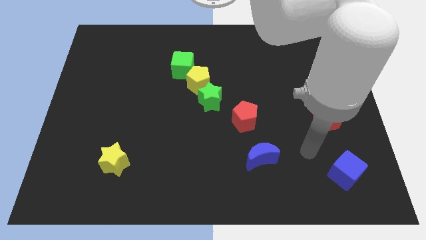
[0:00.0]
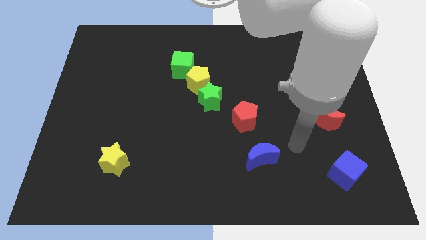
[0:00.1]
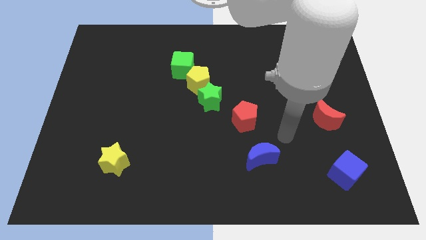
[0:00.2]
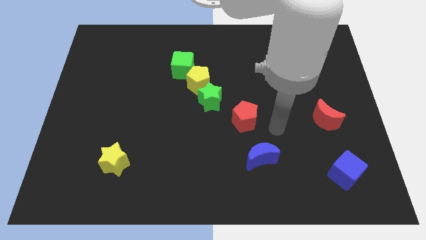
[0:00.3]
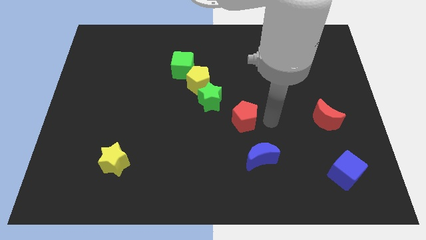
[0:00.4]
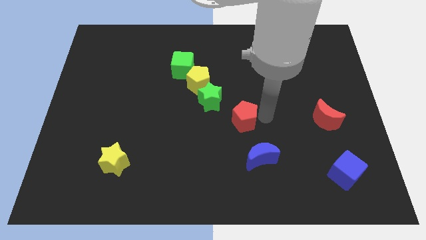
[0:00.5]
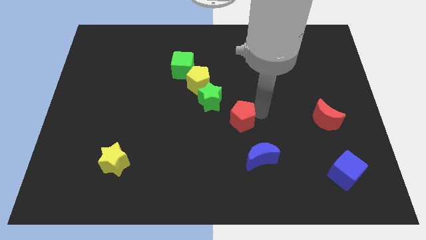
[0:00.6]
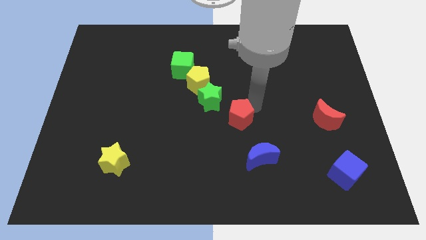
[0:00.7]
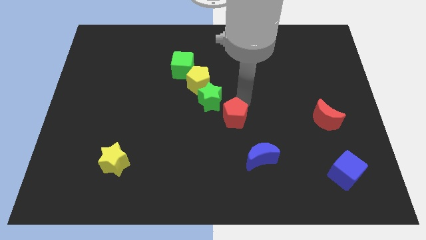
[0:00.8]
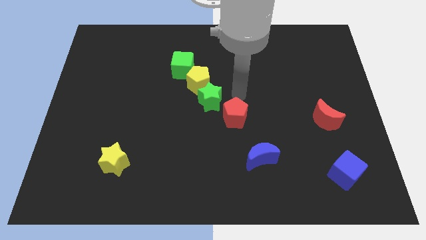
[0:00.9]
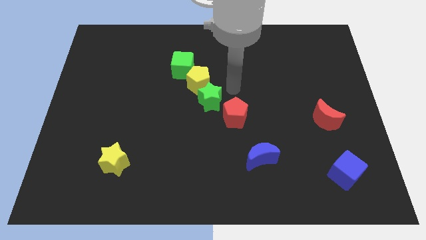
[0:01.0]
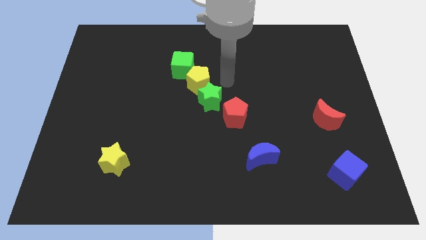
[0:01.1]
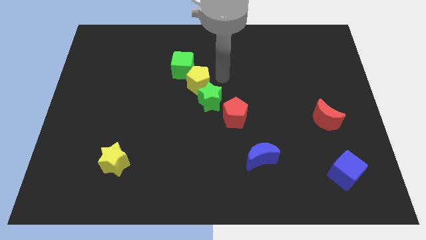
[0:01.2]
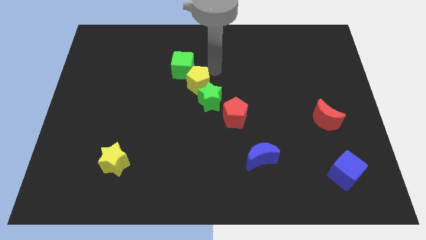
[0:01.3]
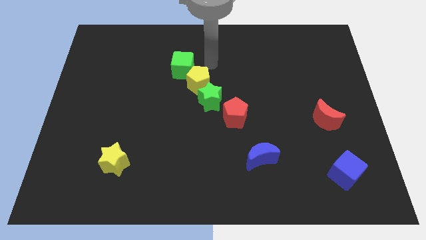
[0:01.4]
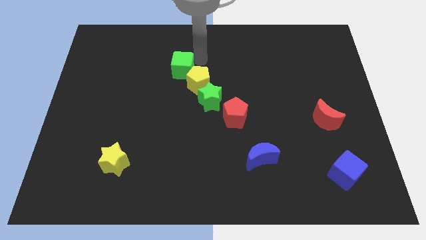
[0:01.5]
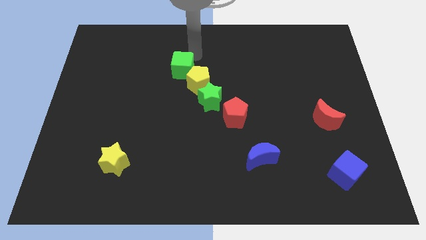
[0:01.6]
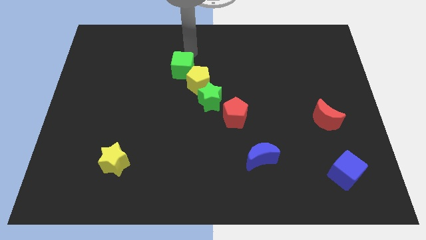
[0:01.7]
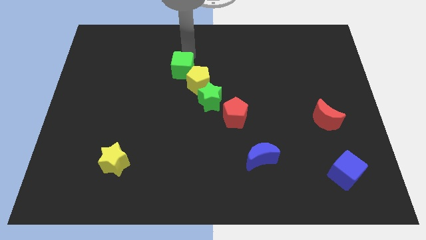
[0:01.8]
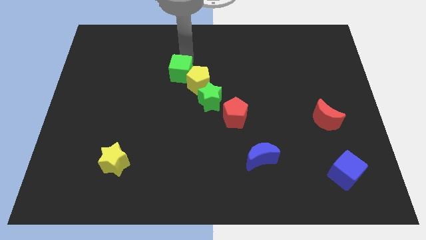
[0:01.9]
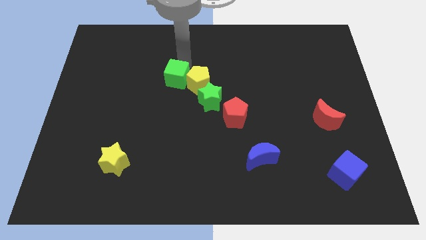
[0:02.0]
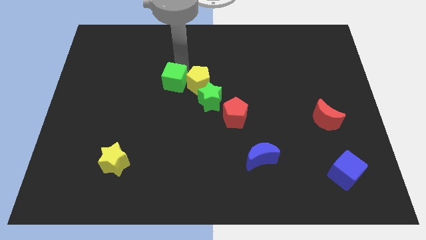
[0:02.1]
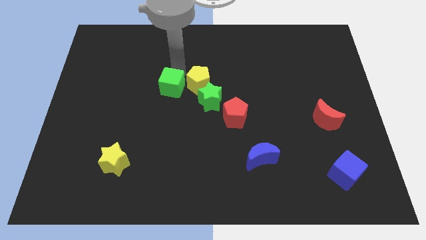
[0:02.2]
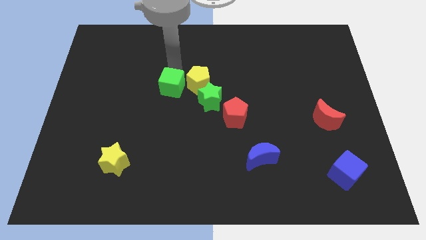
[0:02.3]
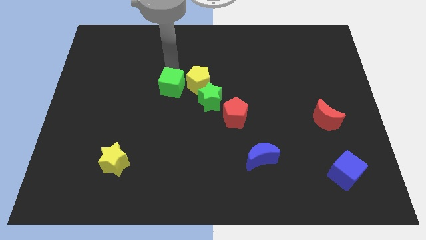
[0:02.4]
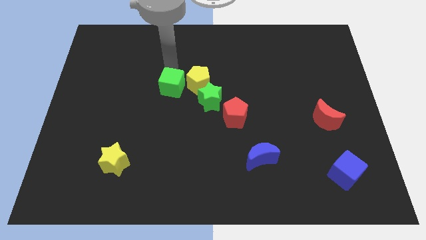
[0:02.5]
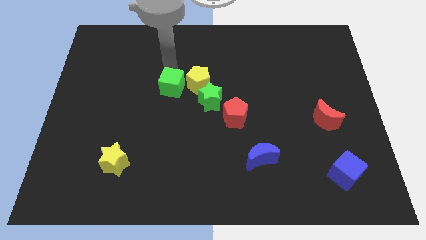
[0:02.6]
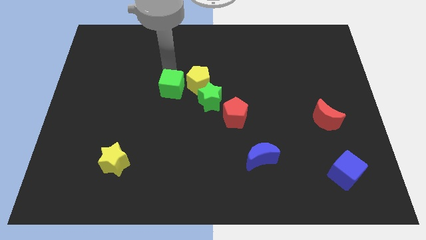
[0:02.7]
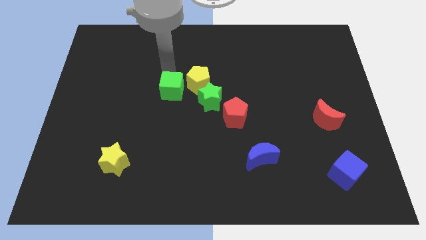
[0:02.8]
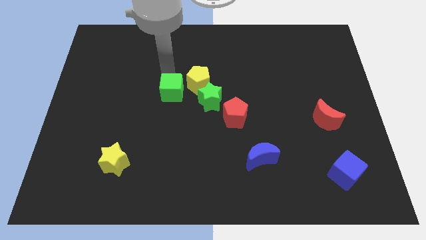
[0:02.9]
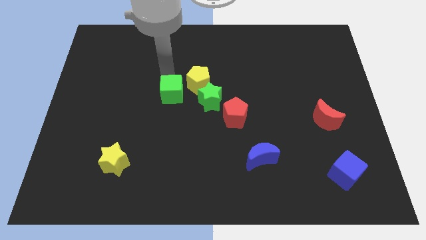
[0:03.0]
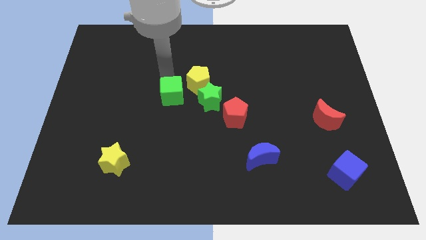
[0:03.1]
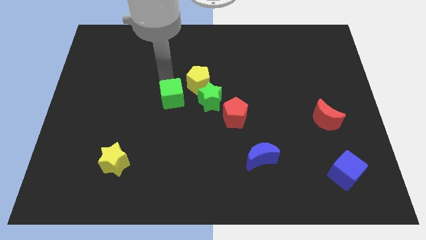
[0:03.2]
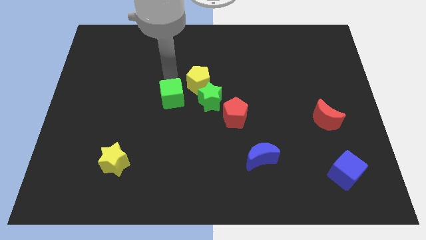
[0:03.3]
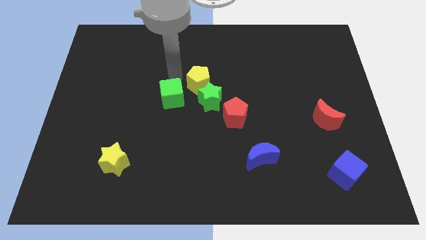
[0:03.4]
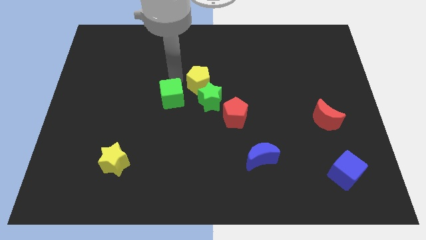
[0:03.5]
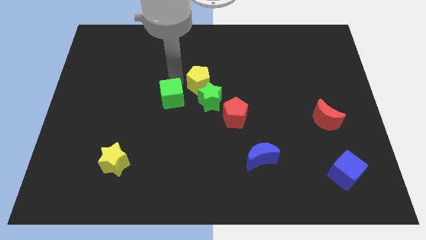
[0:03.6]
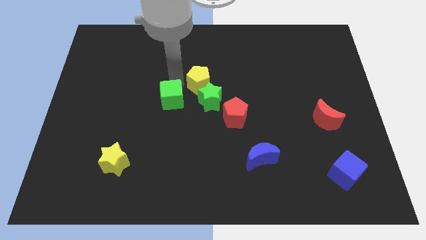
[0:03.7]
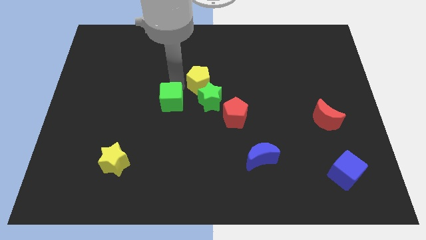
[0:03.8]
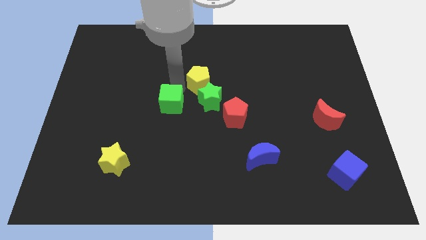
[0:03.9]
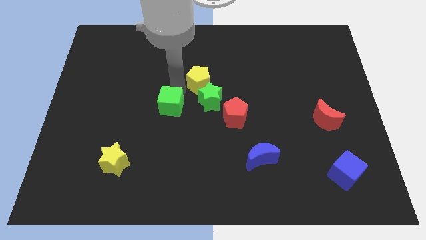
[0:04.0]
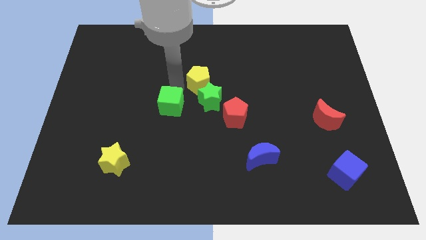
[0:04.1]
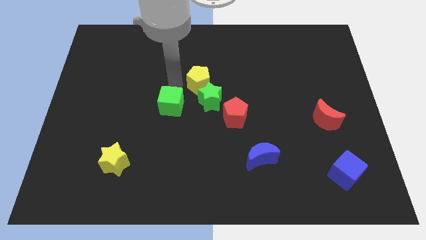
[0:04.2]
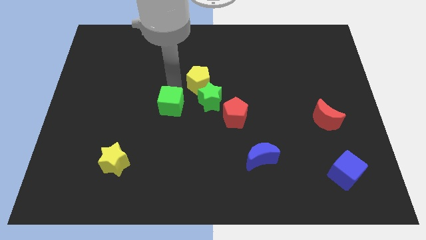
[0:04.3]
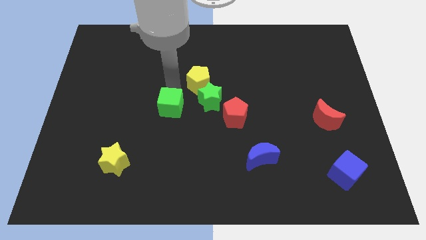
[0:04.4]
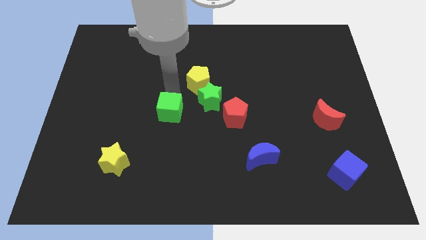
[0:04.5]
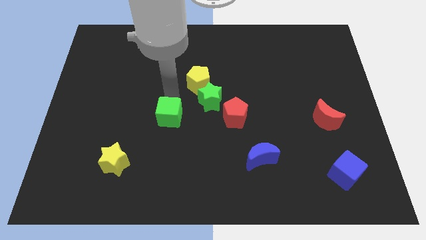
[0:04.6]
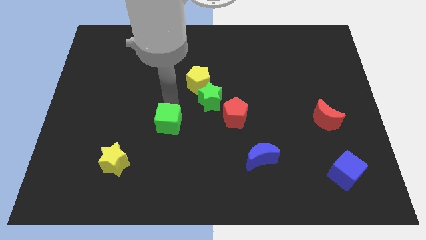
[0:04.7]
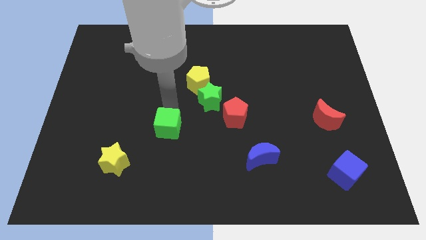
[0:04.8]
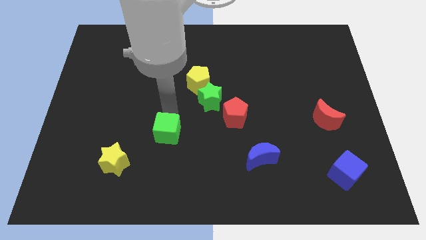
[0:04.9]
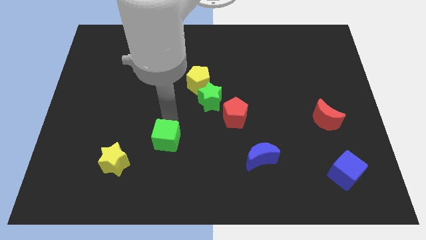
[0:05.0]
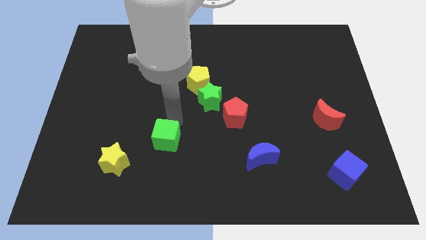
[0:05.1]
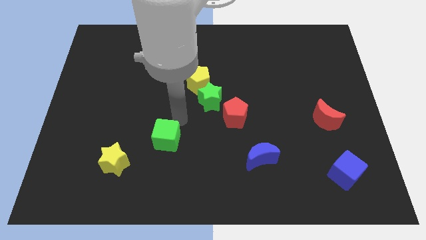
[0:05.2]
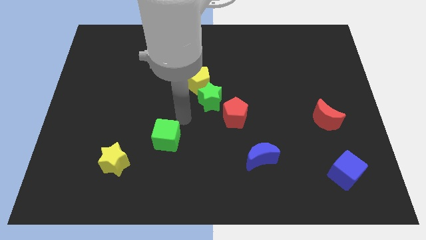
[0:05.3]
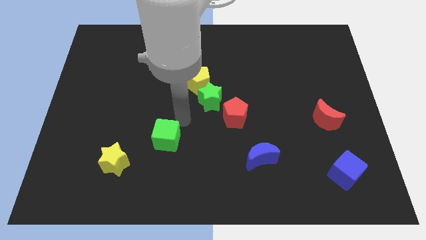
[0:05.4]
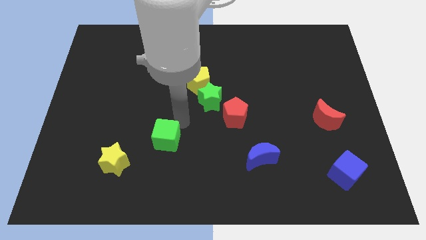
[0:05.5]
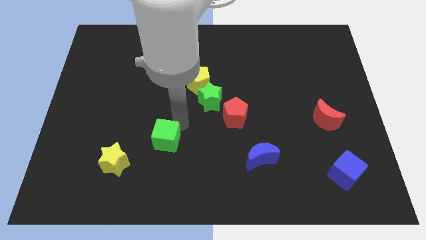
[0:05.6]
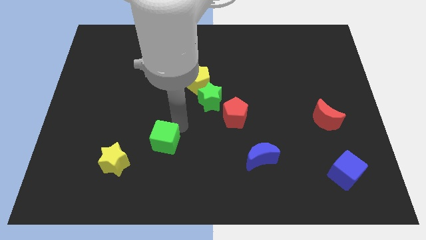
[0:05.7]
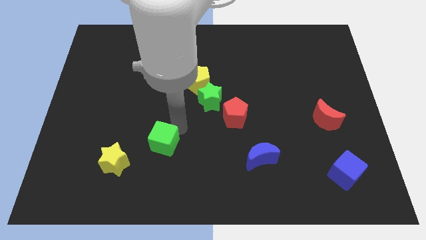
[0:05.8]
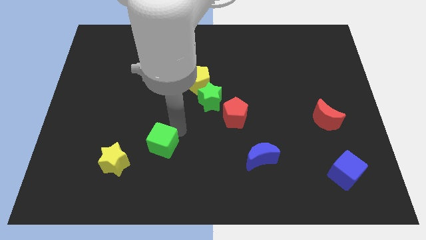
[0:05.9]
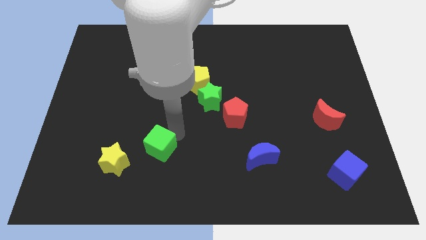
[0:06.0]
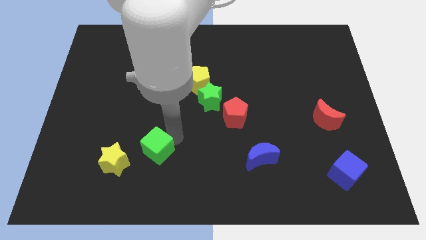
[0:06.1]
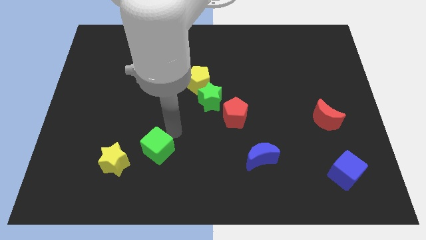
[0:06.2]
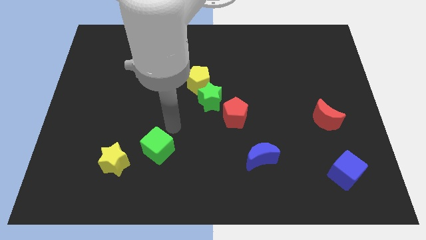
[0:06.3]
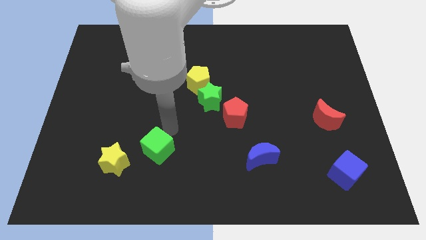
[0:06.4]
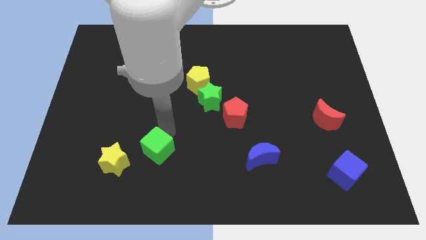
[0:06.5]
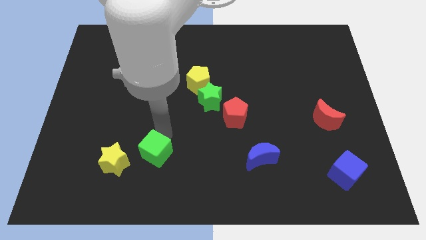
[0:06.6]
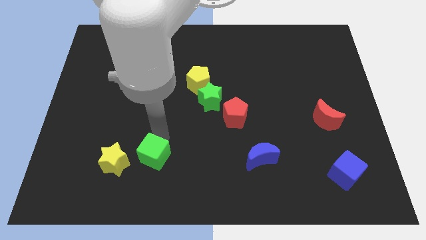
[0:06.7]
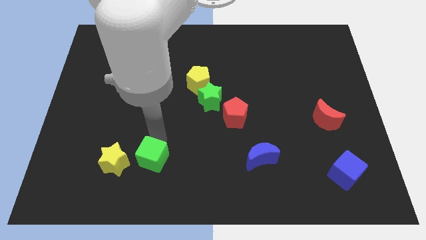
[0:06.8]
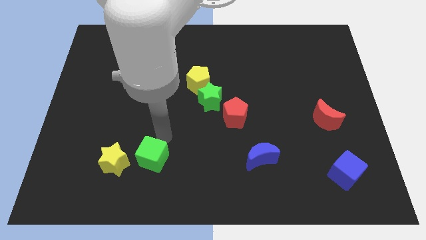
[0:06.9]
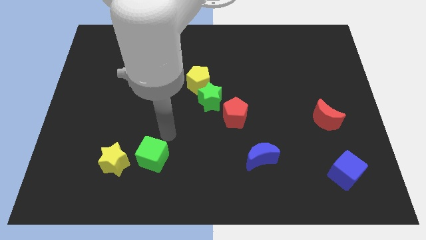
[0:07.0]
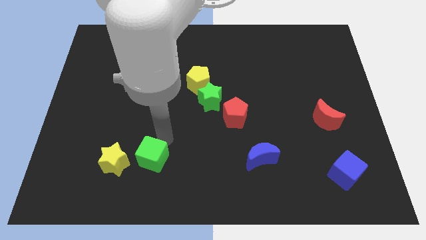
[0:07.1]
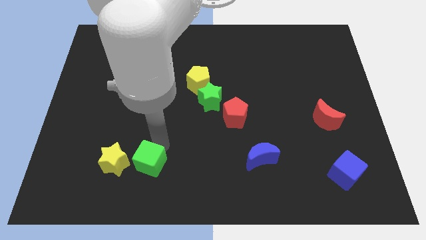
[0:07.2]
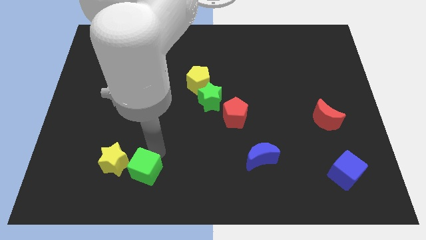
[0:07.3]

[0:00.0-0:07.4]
move the green cube diagonally down and to the right of the yellow star

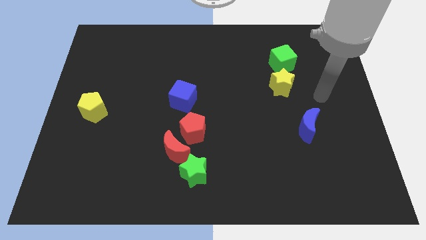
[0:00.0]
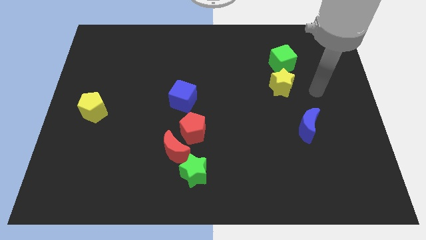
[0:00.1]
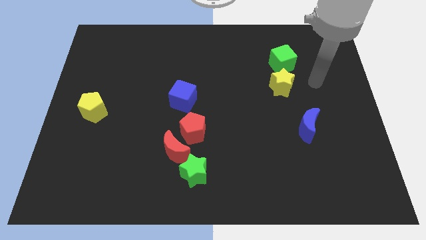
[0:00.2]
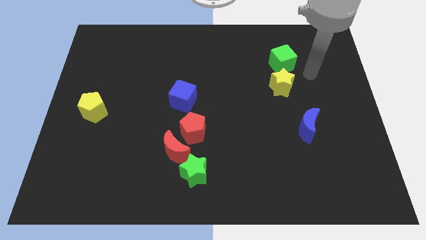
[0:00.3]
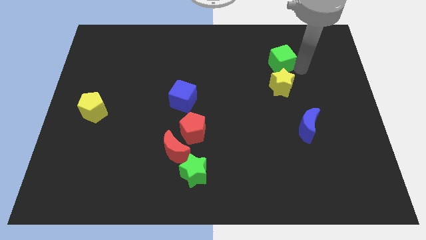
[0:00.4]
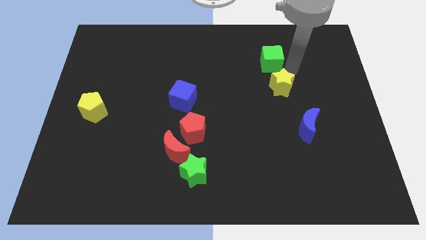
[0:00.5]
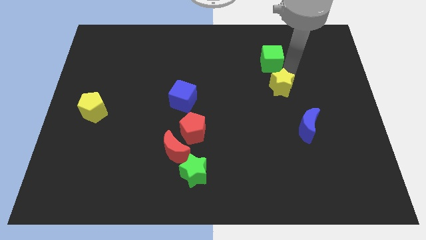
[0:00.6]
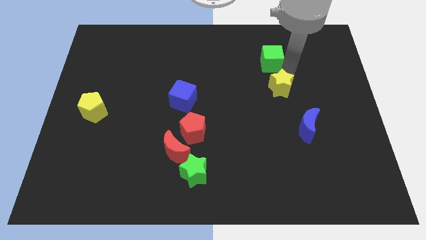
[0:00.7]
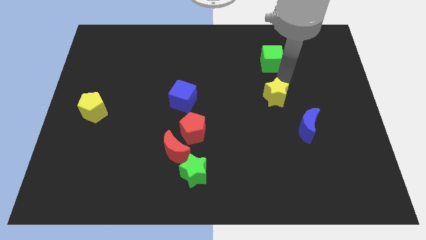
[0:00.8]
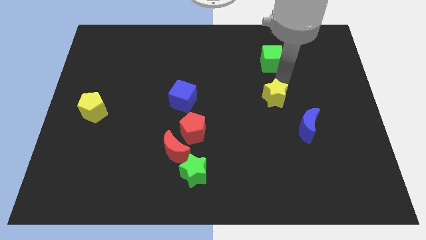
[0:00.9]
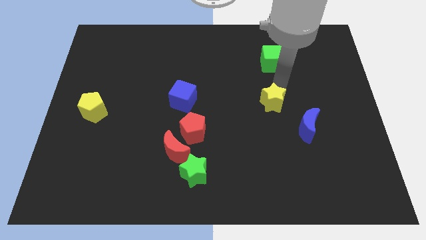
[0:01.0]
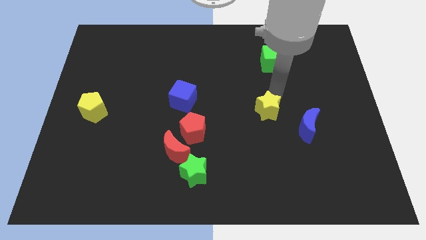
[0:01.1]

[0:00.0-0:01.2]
slide the yellow star to the left side of the blue moon
